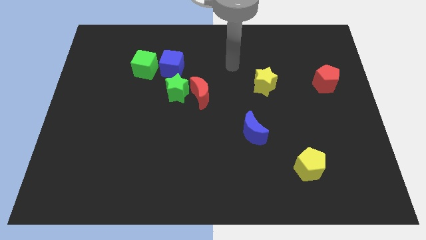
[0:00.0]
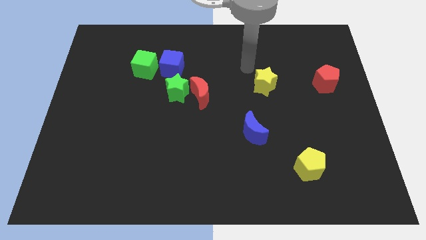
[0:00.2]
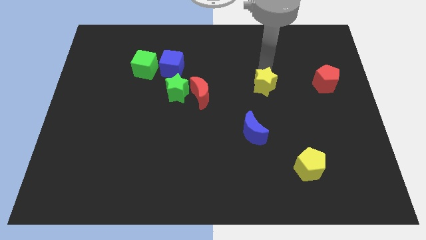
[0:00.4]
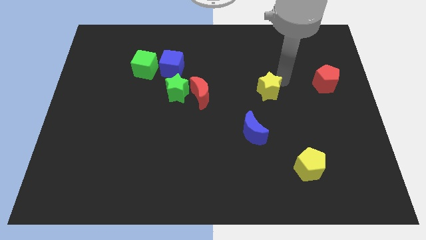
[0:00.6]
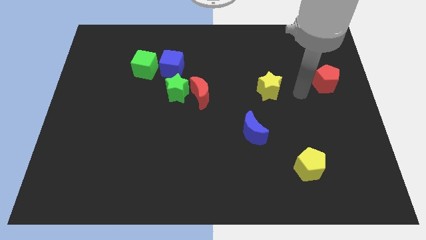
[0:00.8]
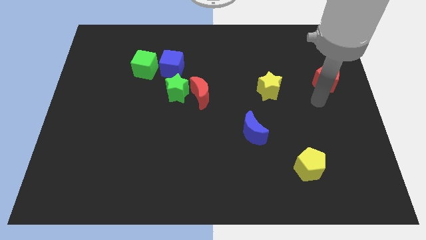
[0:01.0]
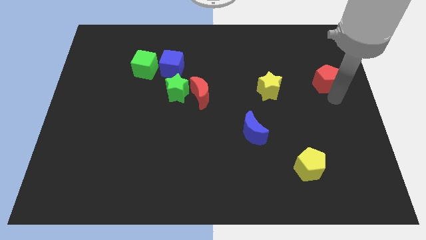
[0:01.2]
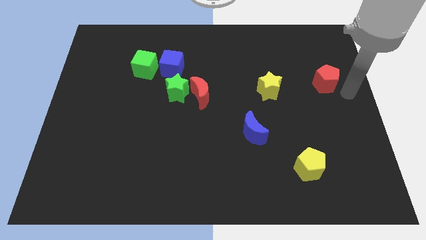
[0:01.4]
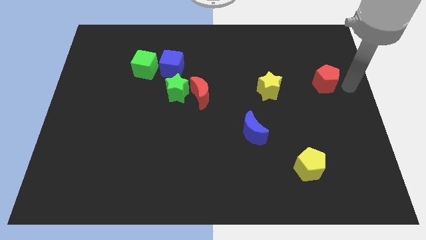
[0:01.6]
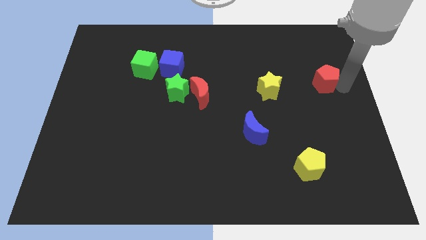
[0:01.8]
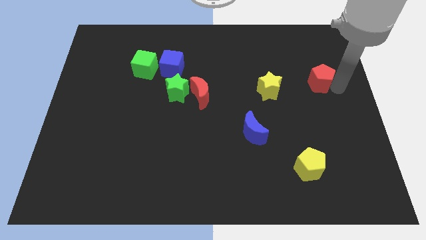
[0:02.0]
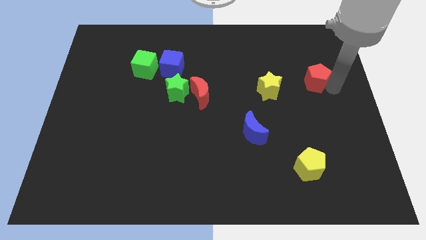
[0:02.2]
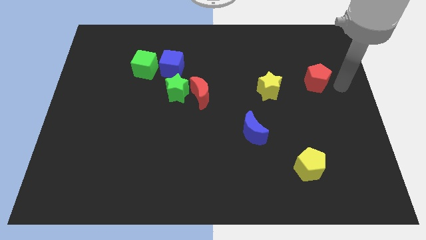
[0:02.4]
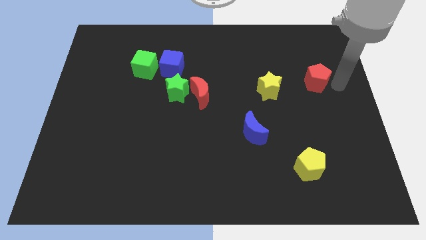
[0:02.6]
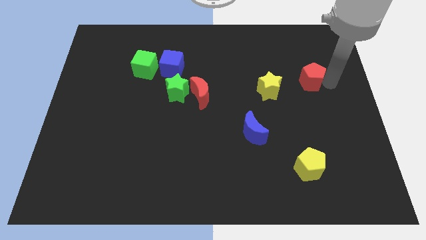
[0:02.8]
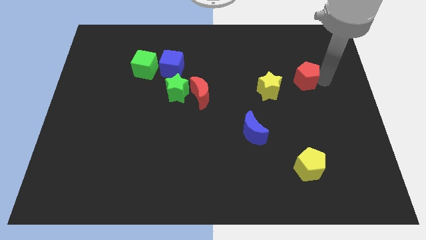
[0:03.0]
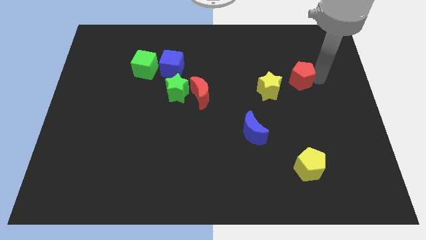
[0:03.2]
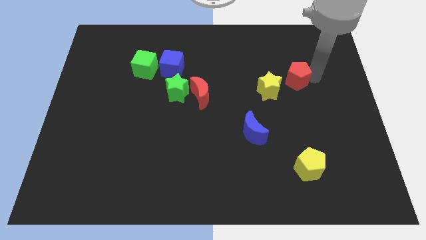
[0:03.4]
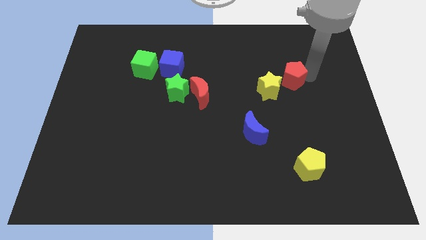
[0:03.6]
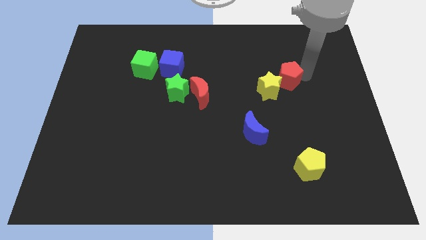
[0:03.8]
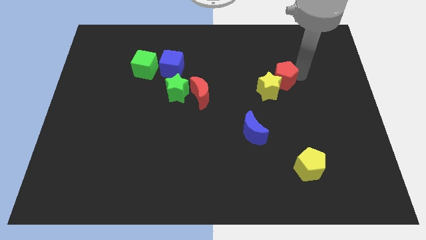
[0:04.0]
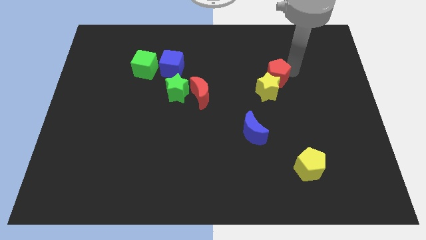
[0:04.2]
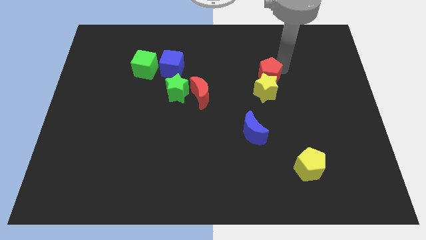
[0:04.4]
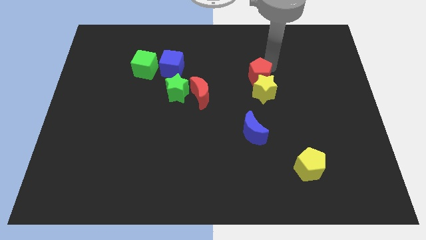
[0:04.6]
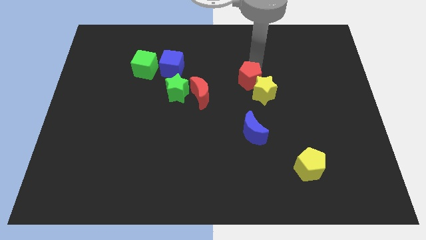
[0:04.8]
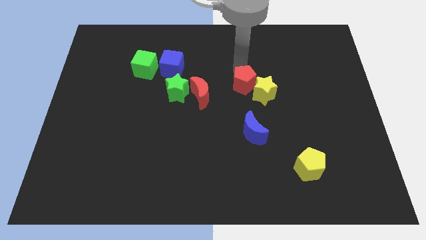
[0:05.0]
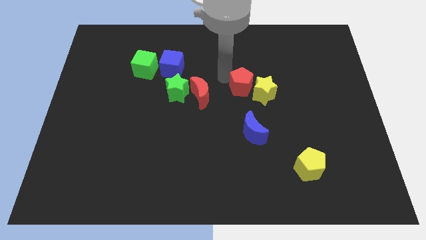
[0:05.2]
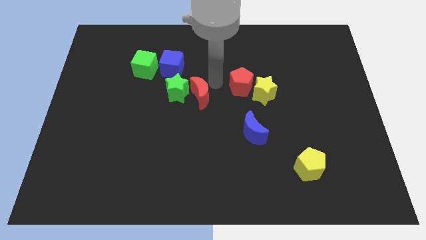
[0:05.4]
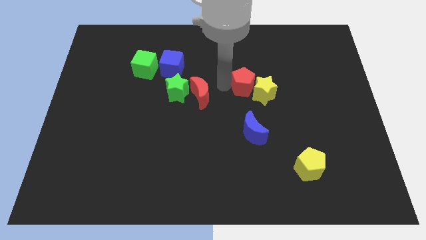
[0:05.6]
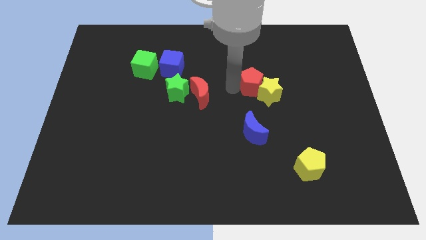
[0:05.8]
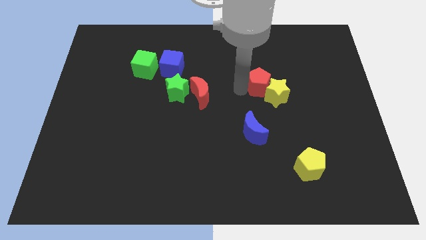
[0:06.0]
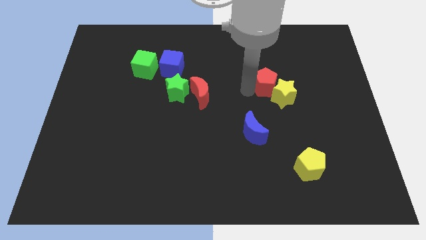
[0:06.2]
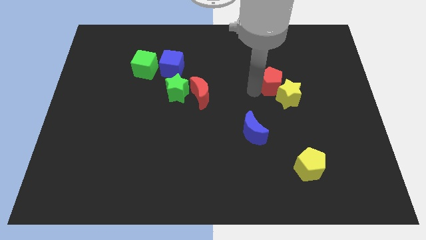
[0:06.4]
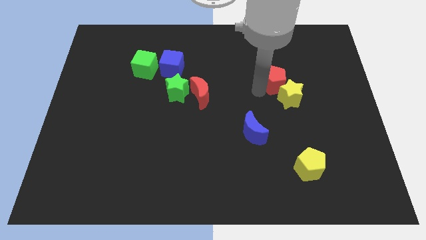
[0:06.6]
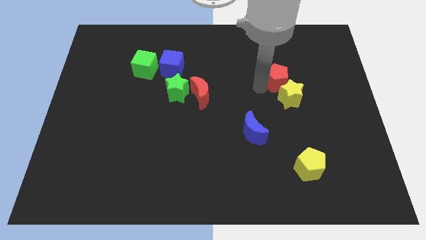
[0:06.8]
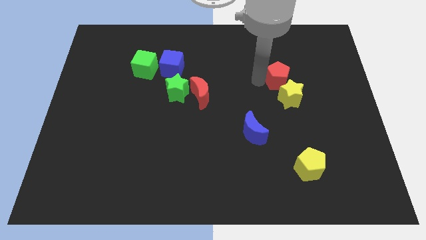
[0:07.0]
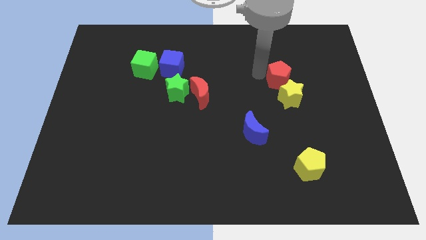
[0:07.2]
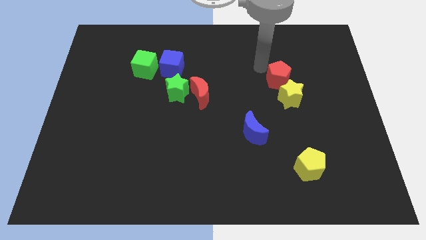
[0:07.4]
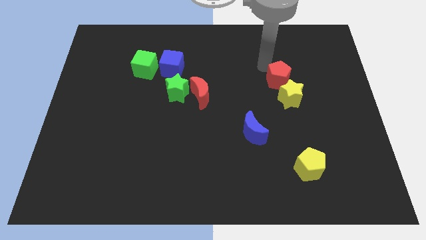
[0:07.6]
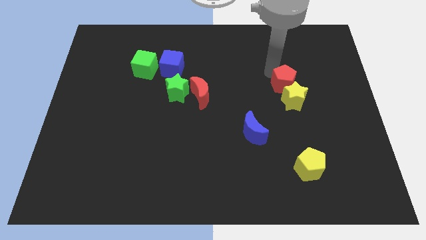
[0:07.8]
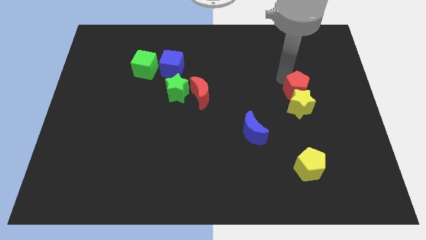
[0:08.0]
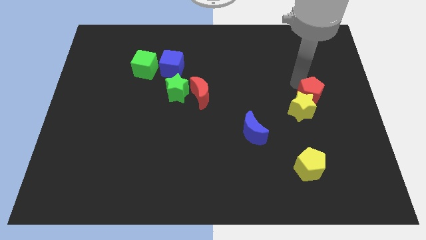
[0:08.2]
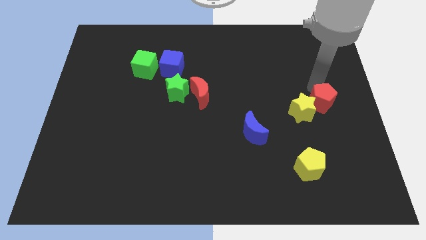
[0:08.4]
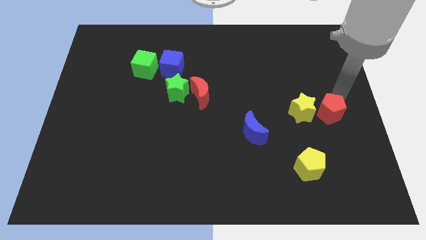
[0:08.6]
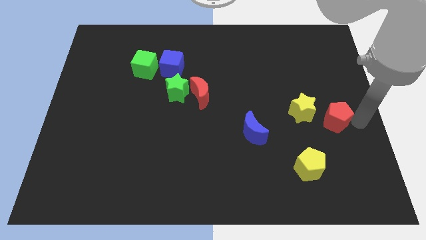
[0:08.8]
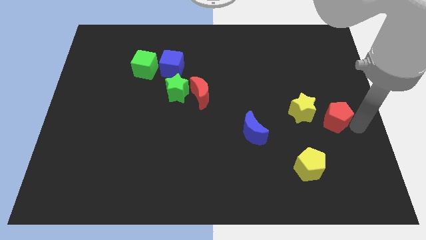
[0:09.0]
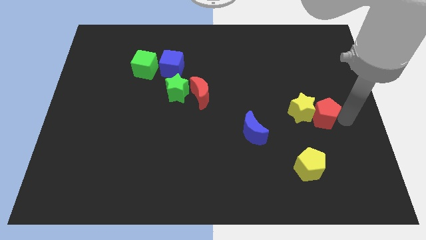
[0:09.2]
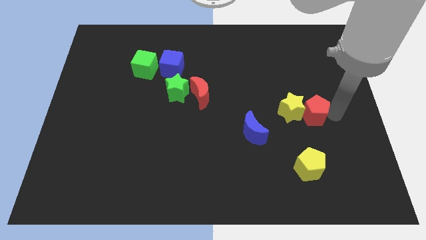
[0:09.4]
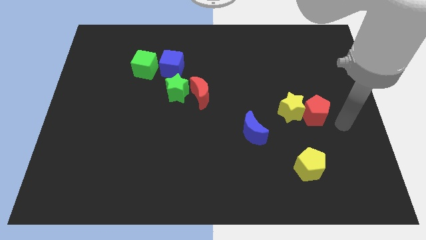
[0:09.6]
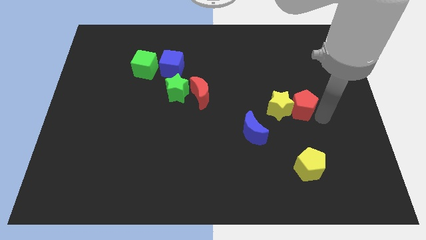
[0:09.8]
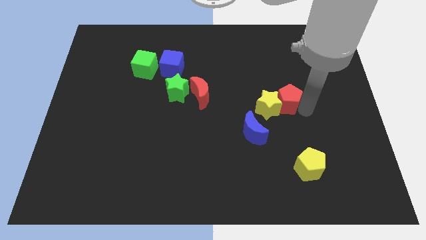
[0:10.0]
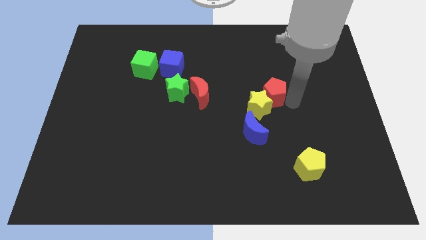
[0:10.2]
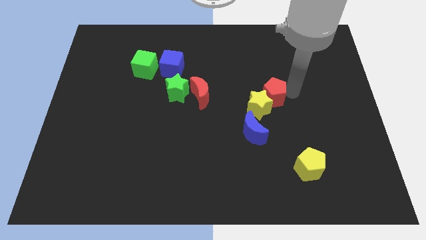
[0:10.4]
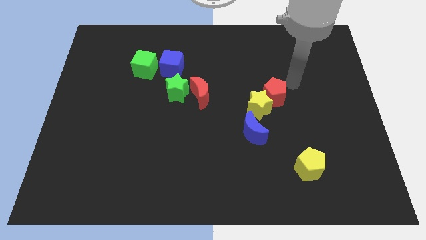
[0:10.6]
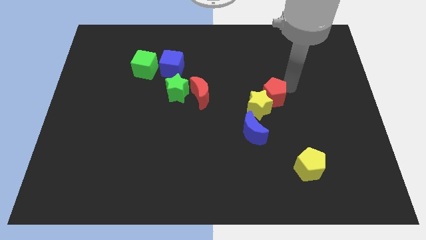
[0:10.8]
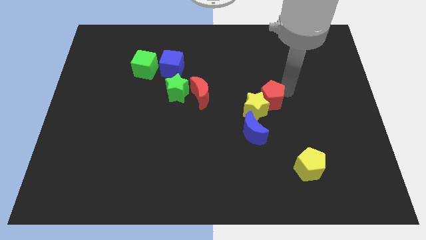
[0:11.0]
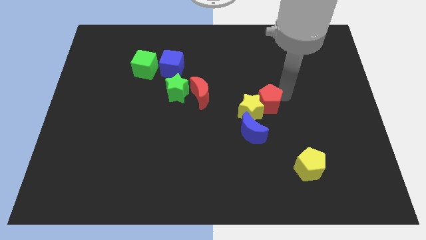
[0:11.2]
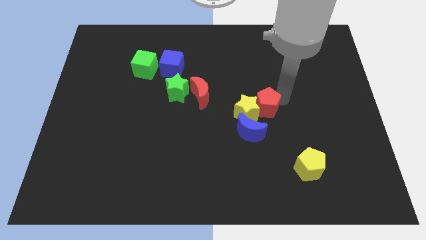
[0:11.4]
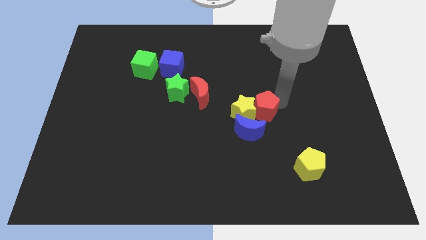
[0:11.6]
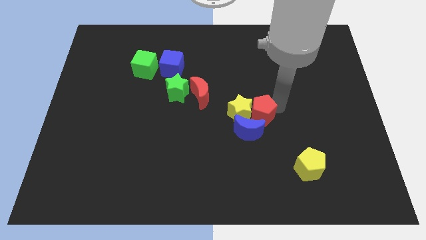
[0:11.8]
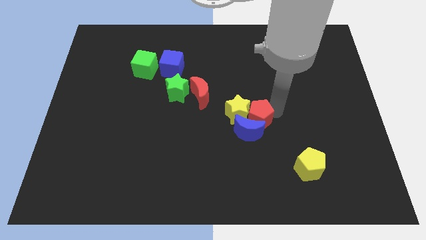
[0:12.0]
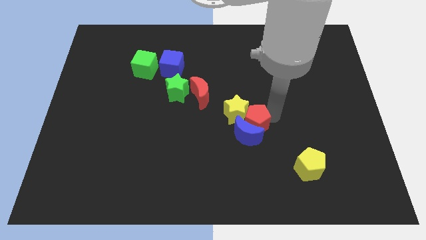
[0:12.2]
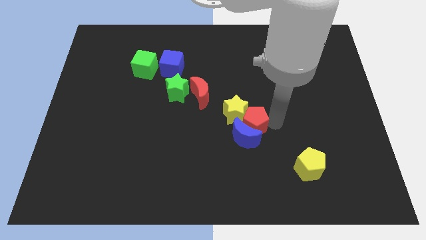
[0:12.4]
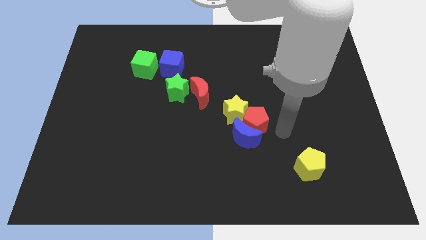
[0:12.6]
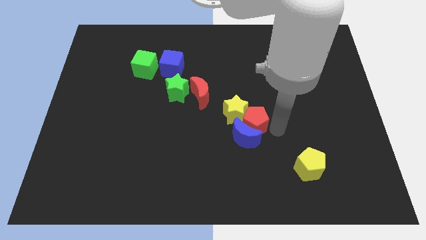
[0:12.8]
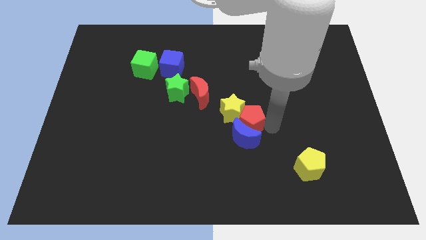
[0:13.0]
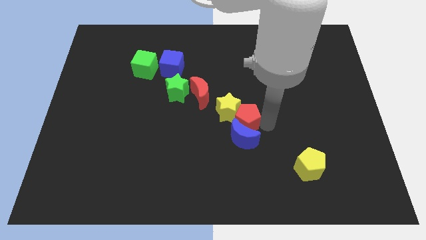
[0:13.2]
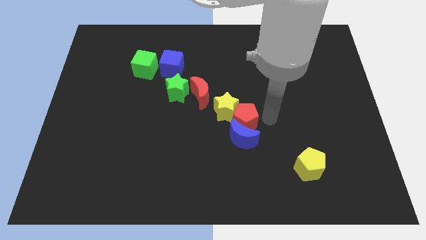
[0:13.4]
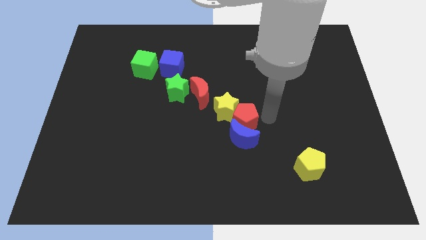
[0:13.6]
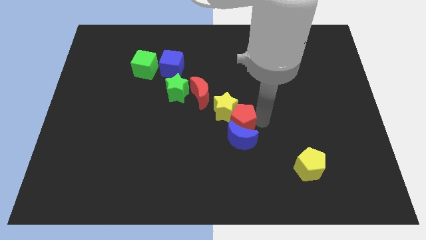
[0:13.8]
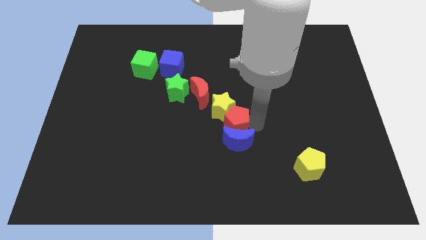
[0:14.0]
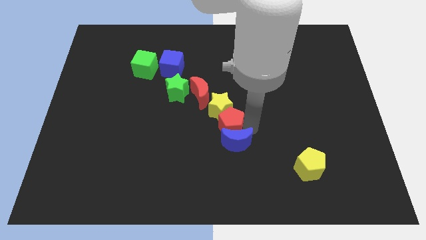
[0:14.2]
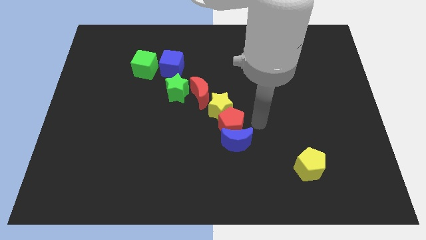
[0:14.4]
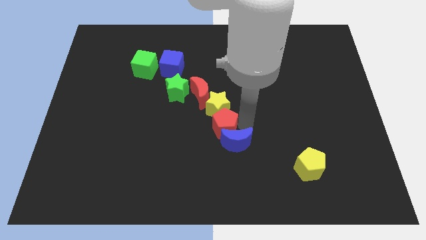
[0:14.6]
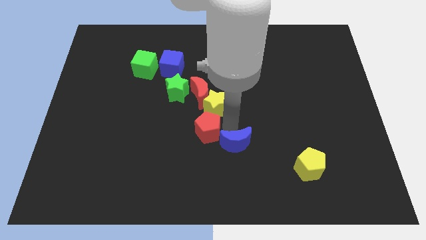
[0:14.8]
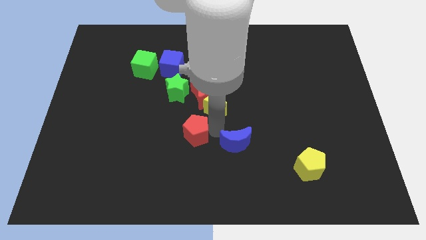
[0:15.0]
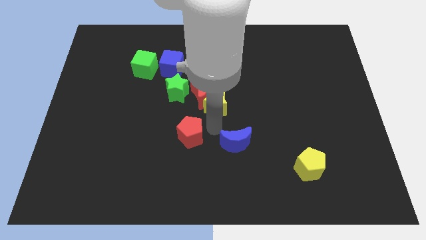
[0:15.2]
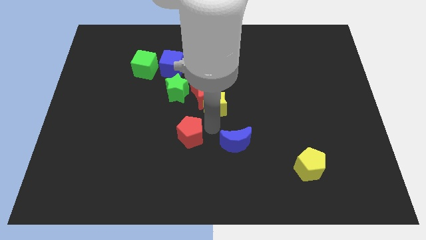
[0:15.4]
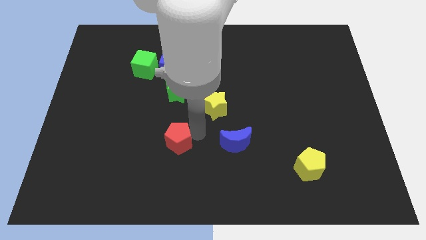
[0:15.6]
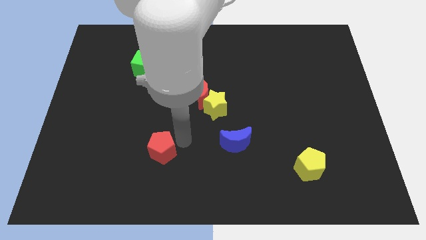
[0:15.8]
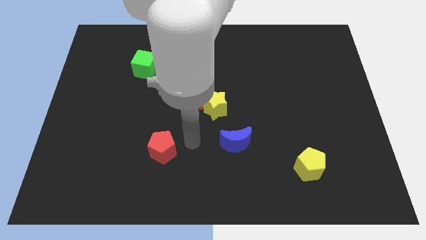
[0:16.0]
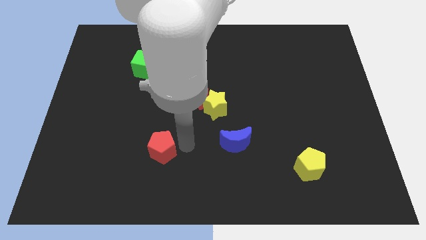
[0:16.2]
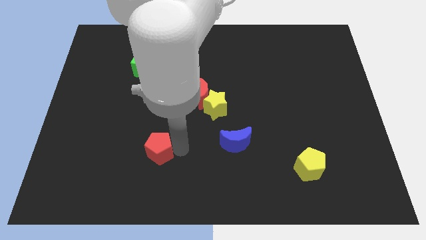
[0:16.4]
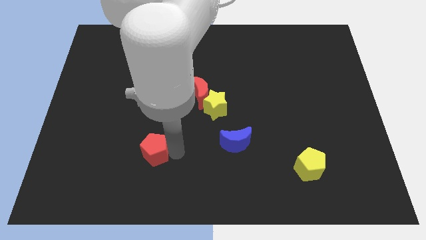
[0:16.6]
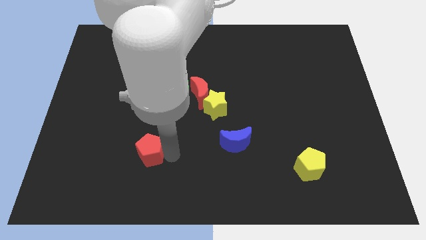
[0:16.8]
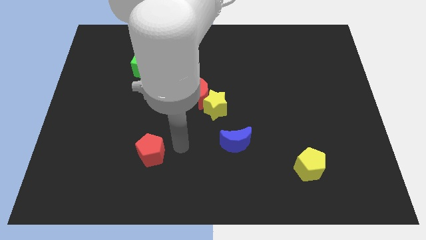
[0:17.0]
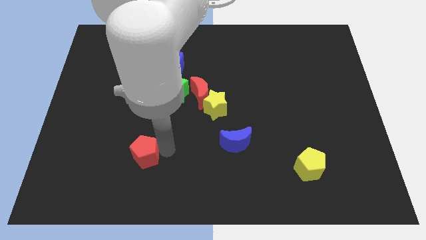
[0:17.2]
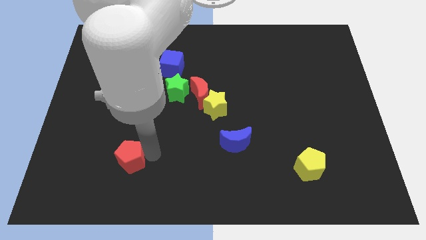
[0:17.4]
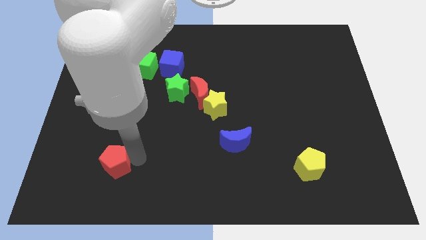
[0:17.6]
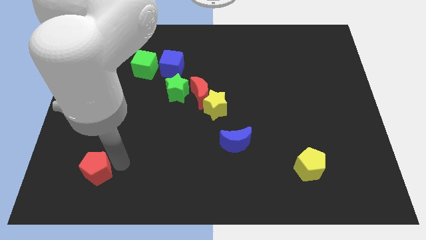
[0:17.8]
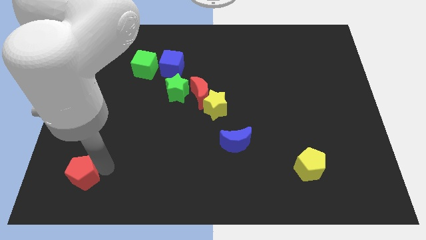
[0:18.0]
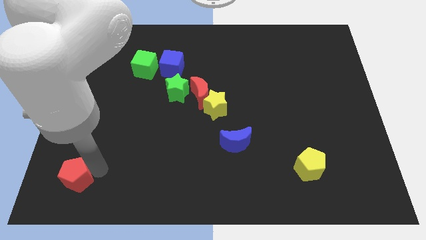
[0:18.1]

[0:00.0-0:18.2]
slide the red pentagon to the lower left corner
